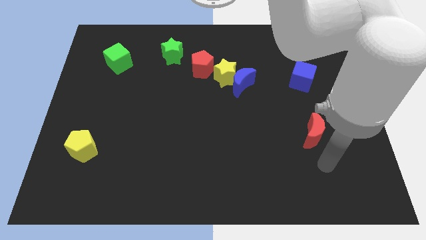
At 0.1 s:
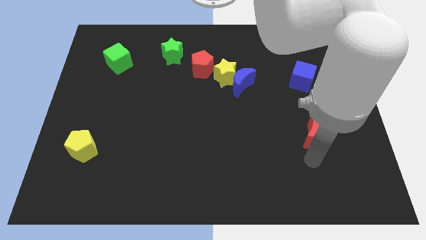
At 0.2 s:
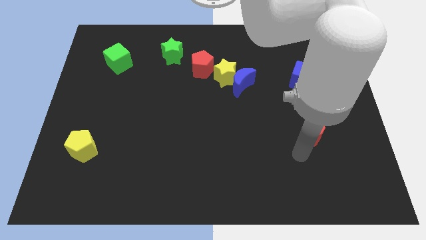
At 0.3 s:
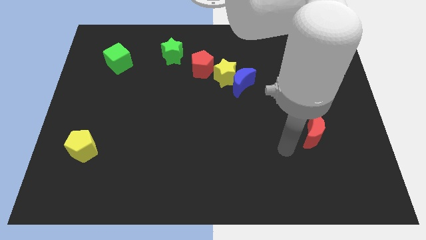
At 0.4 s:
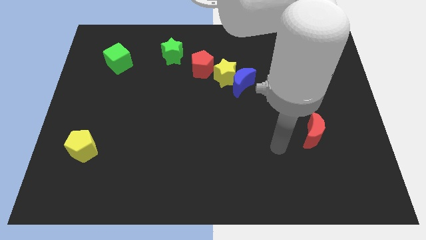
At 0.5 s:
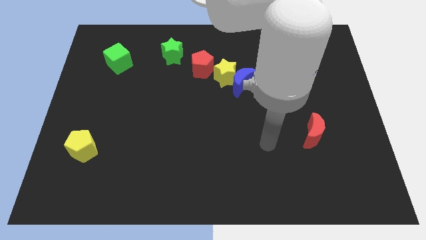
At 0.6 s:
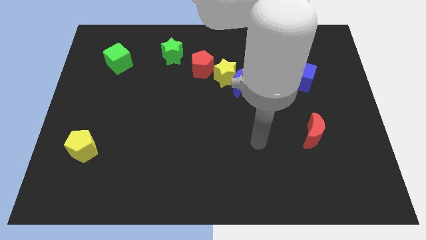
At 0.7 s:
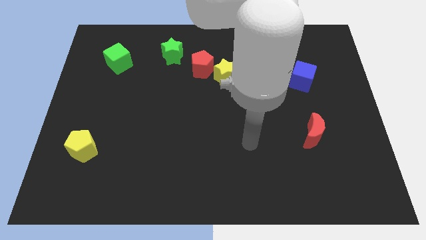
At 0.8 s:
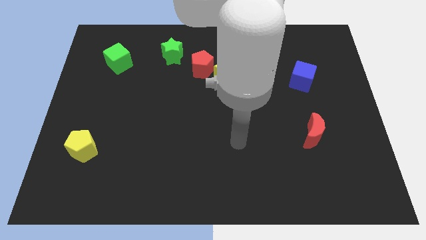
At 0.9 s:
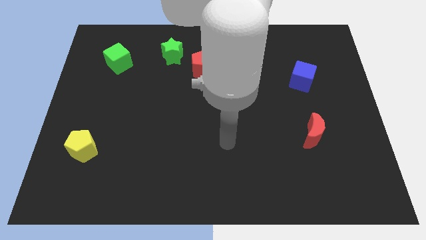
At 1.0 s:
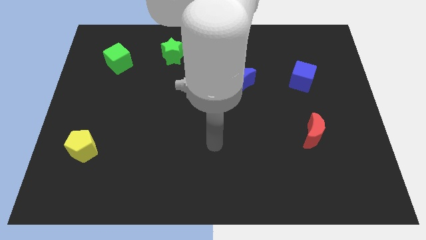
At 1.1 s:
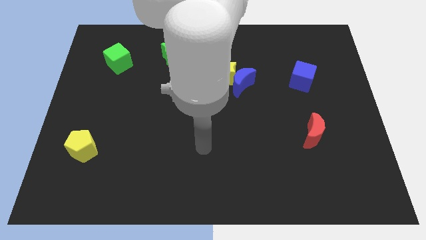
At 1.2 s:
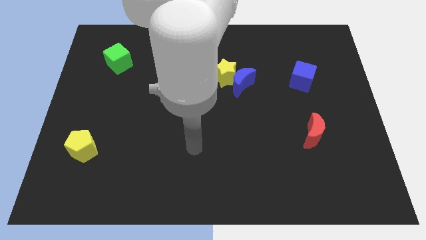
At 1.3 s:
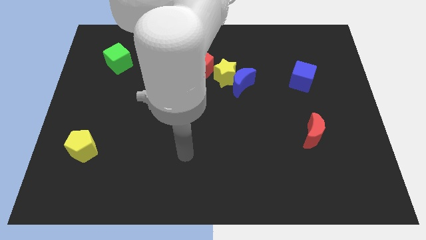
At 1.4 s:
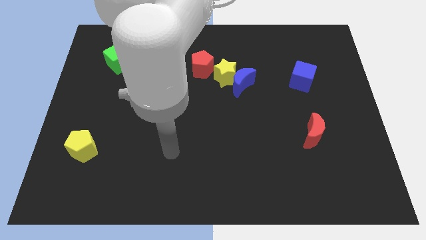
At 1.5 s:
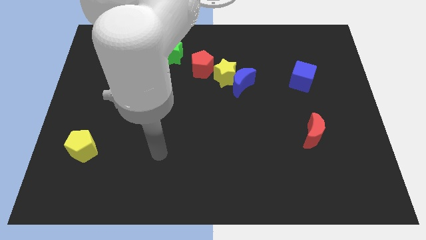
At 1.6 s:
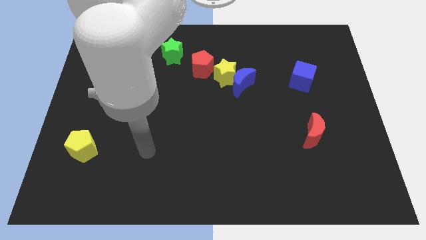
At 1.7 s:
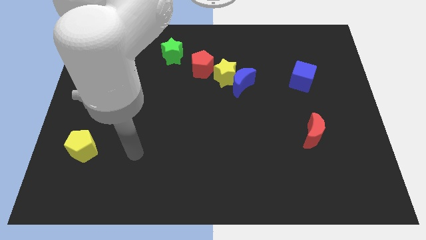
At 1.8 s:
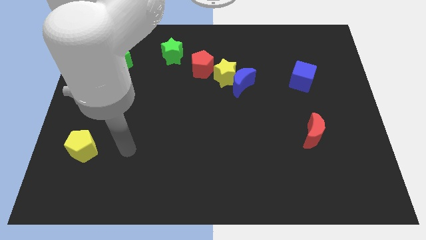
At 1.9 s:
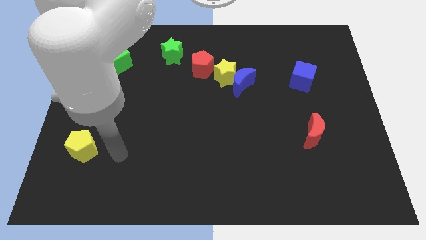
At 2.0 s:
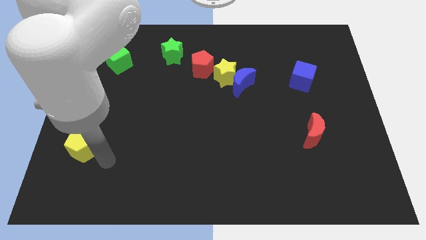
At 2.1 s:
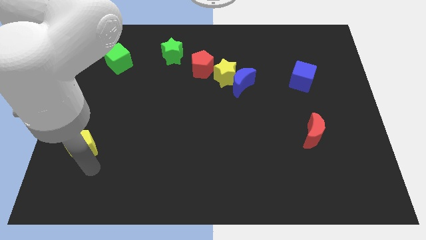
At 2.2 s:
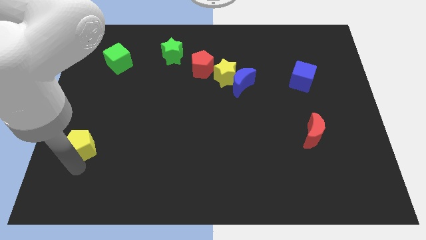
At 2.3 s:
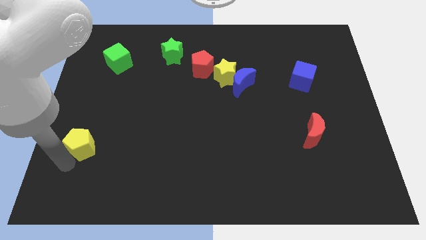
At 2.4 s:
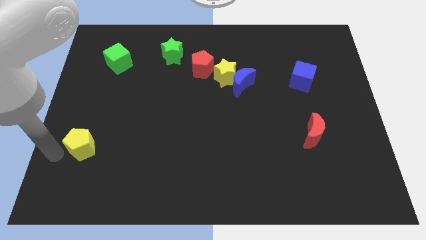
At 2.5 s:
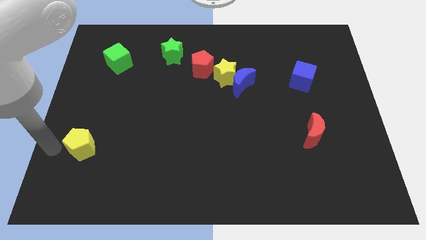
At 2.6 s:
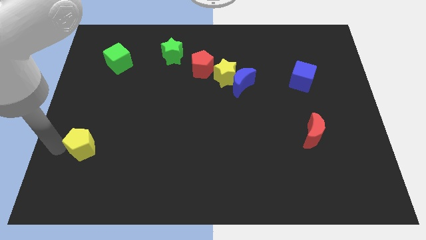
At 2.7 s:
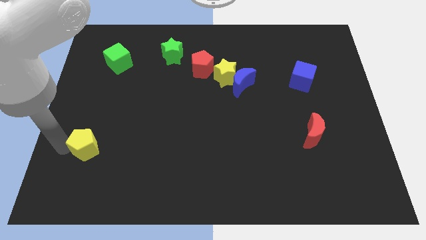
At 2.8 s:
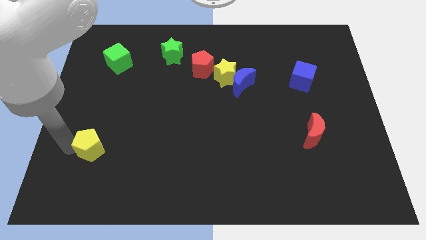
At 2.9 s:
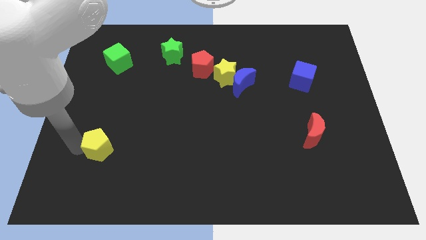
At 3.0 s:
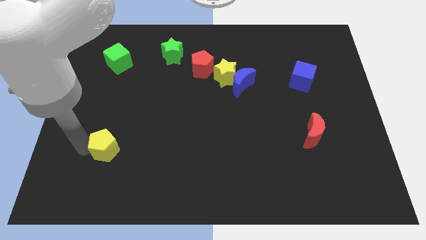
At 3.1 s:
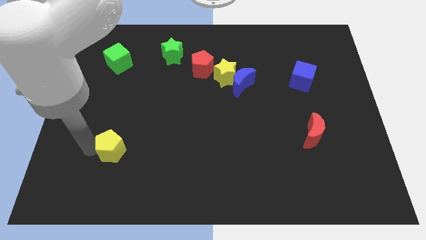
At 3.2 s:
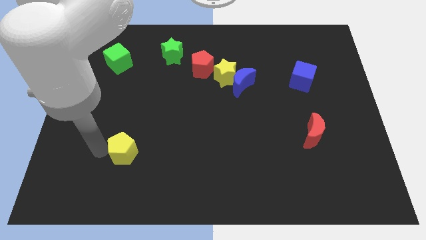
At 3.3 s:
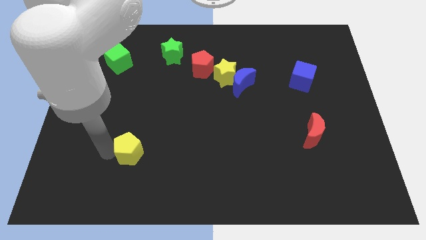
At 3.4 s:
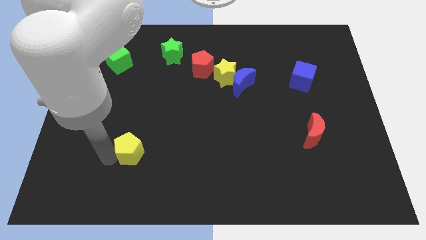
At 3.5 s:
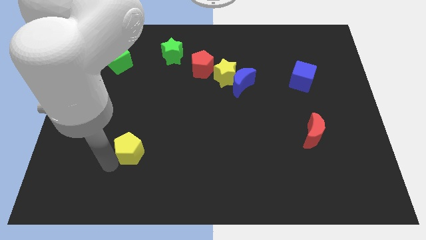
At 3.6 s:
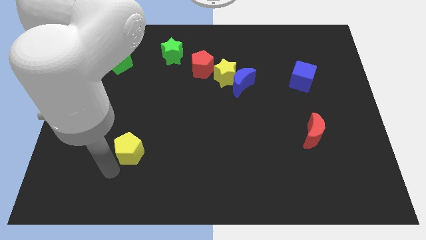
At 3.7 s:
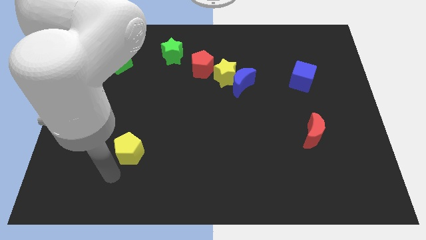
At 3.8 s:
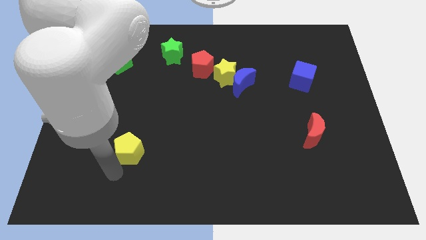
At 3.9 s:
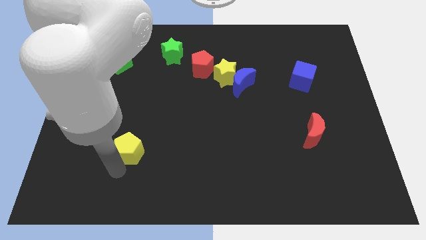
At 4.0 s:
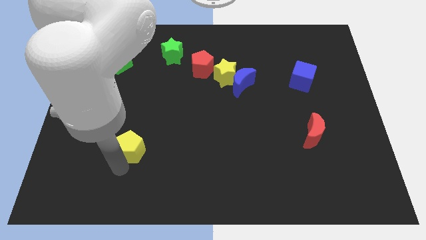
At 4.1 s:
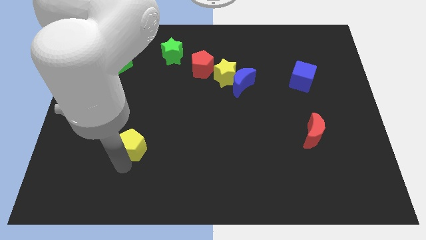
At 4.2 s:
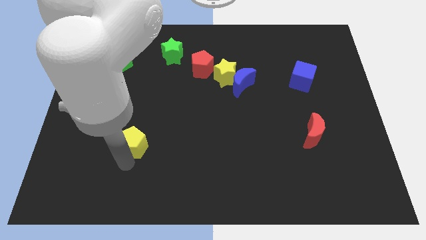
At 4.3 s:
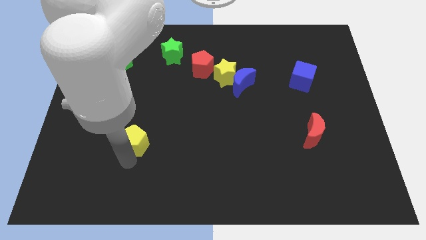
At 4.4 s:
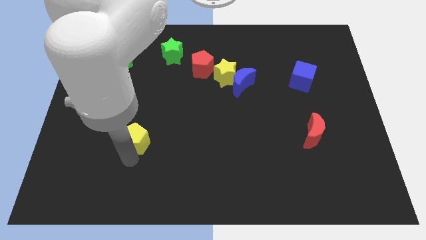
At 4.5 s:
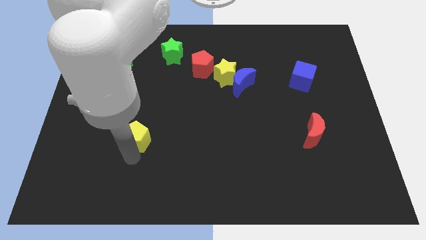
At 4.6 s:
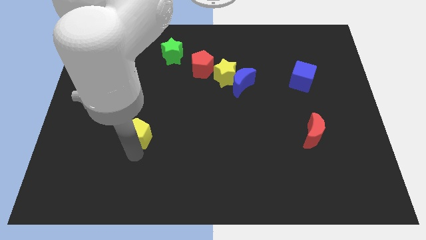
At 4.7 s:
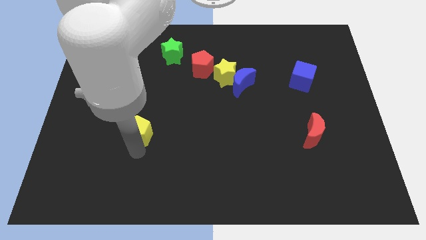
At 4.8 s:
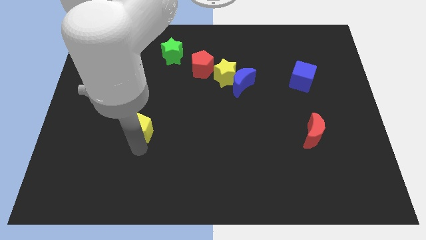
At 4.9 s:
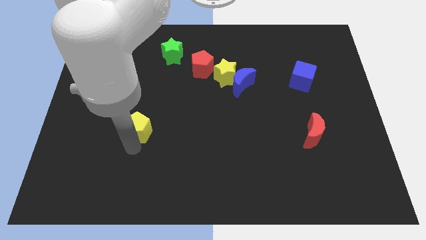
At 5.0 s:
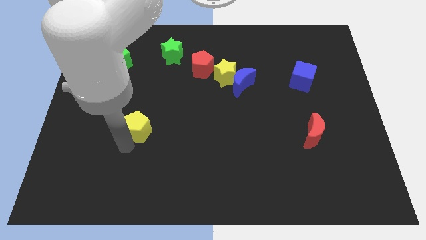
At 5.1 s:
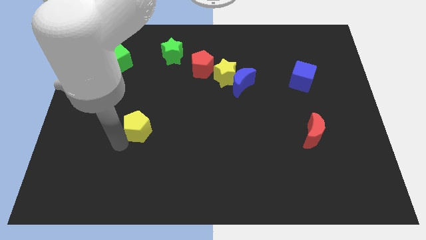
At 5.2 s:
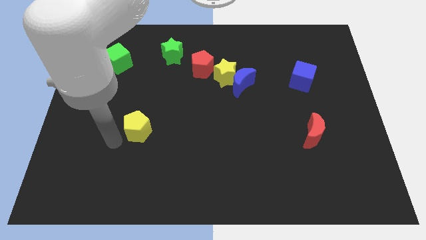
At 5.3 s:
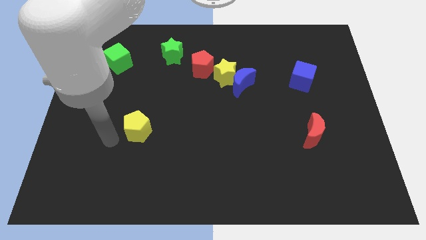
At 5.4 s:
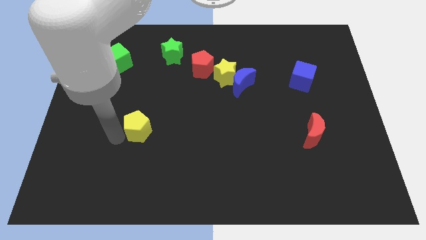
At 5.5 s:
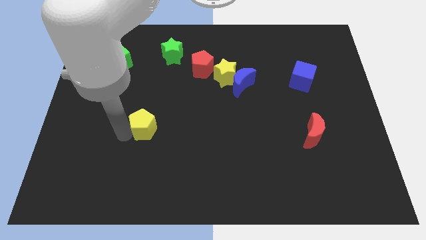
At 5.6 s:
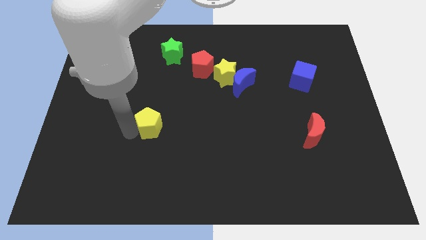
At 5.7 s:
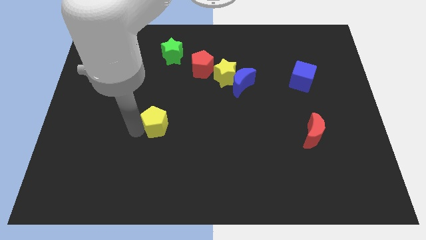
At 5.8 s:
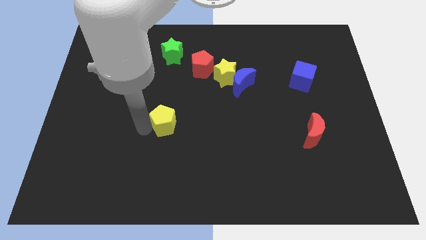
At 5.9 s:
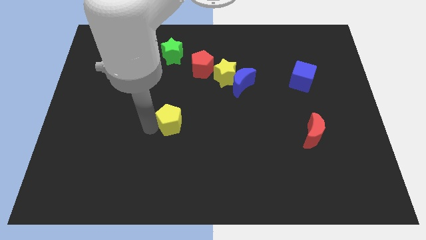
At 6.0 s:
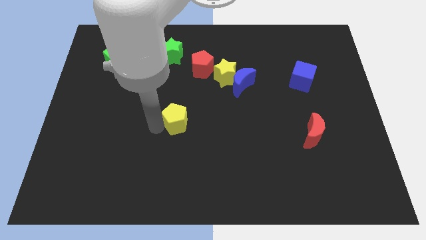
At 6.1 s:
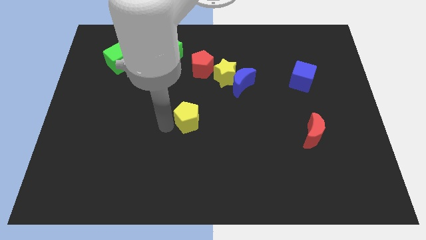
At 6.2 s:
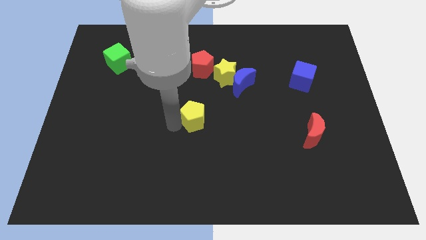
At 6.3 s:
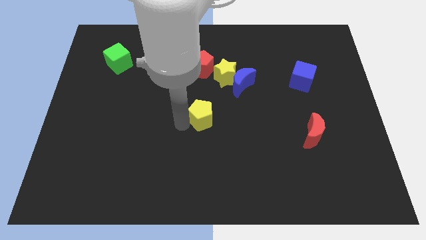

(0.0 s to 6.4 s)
slide the yellow pentagon below the red pentagon

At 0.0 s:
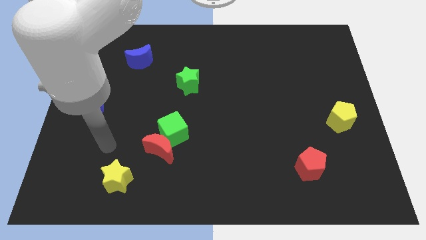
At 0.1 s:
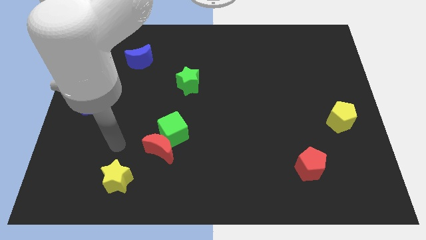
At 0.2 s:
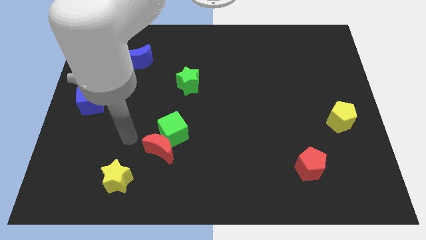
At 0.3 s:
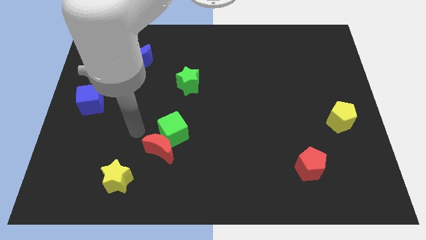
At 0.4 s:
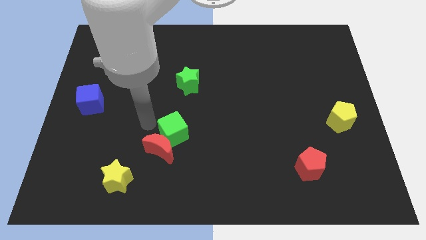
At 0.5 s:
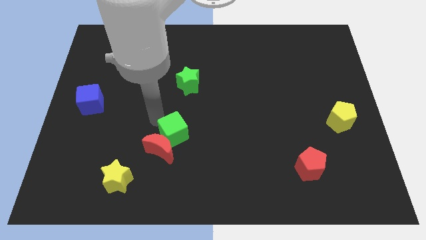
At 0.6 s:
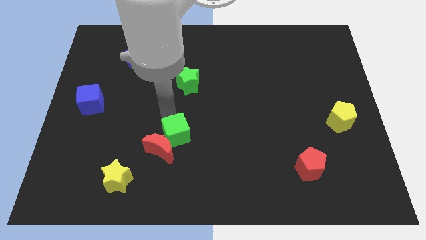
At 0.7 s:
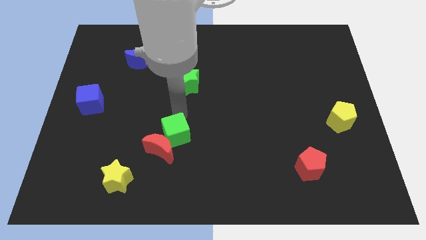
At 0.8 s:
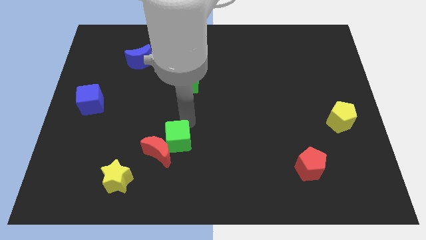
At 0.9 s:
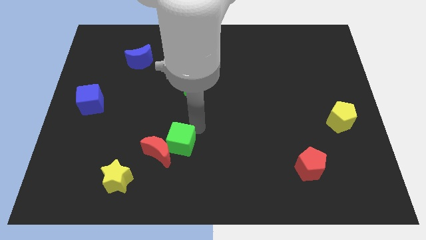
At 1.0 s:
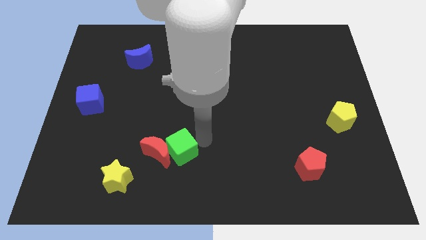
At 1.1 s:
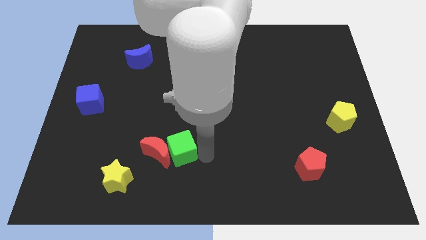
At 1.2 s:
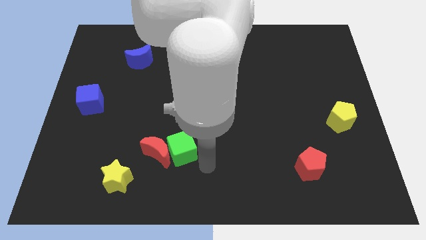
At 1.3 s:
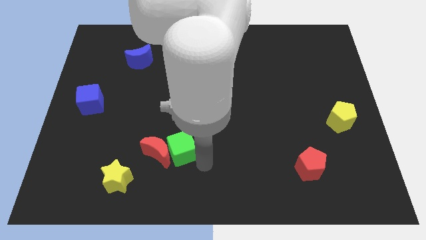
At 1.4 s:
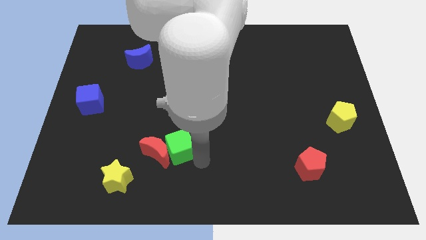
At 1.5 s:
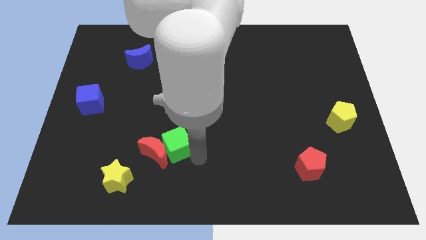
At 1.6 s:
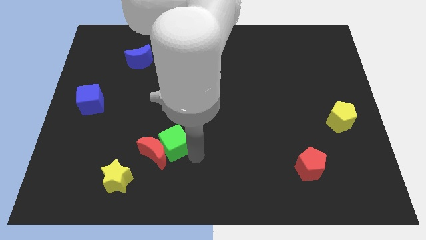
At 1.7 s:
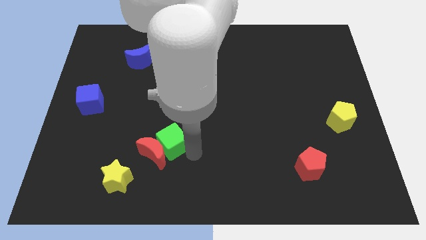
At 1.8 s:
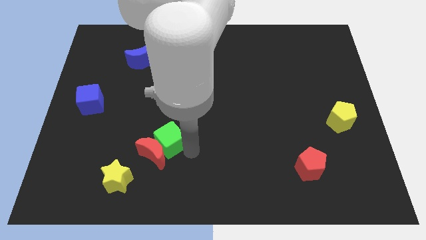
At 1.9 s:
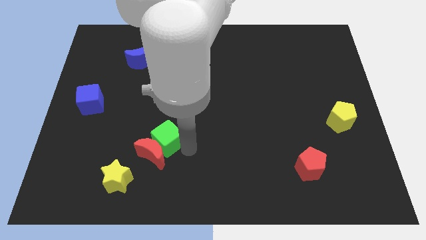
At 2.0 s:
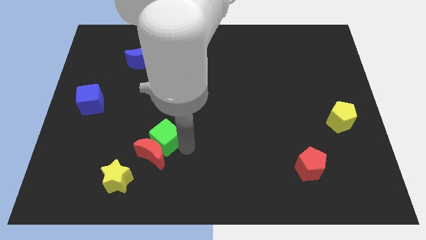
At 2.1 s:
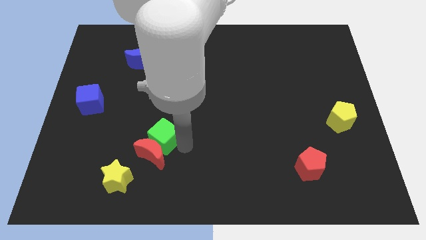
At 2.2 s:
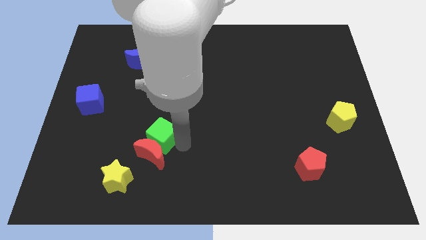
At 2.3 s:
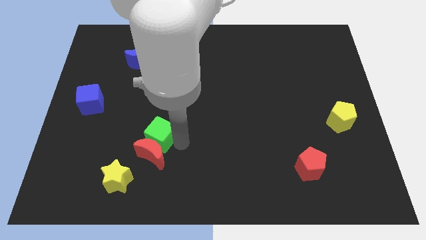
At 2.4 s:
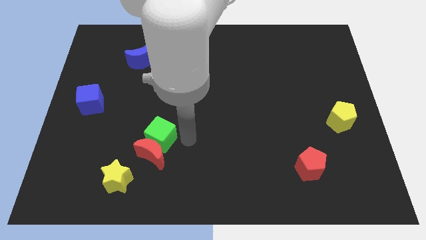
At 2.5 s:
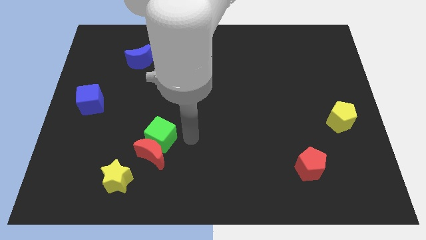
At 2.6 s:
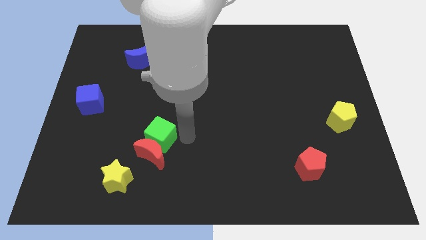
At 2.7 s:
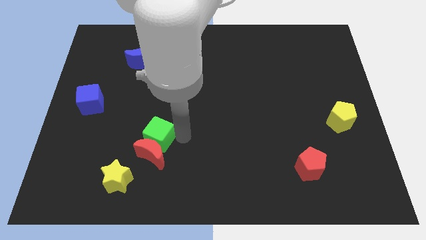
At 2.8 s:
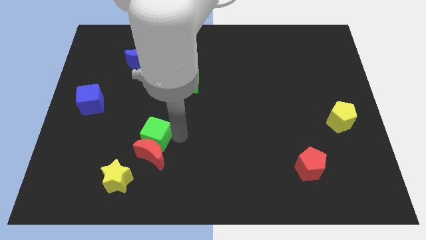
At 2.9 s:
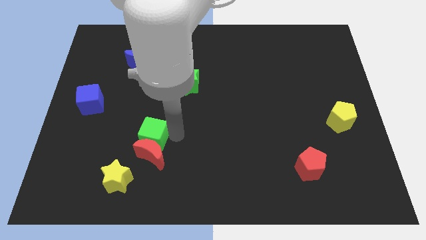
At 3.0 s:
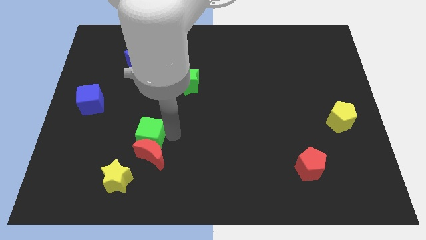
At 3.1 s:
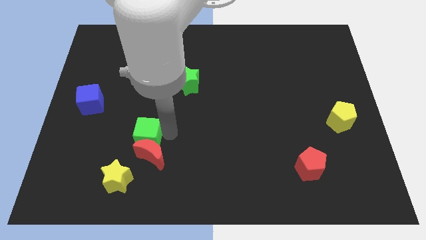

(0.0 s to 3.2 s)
move the green cube to the top side of the yellow star
